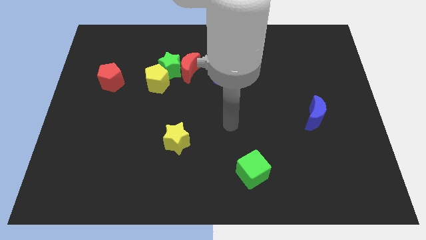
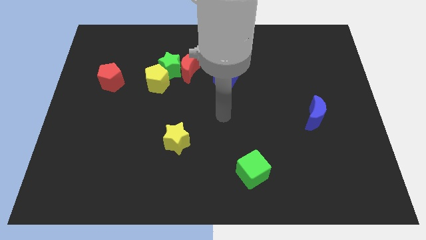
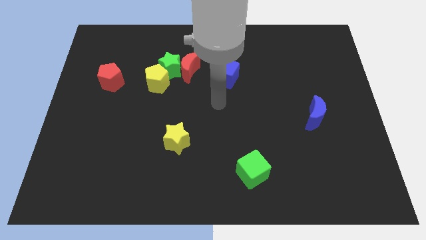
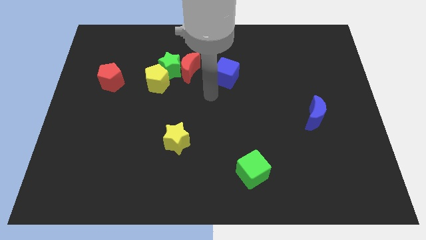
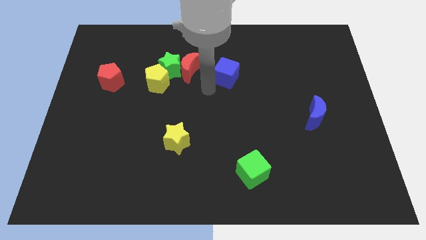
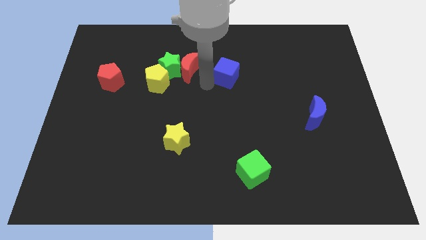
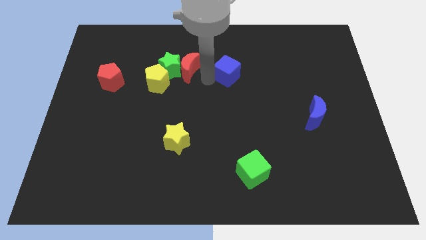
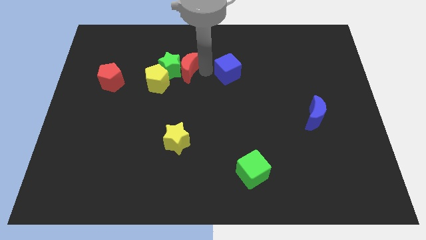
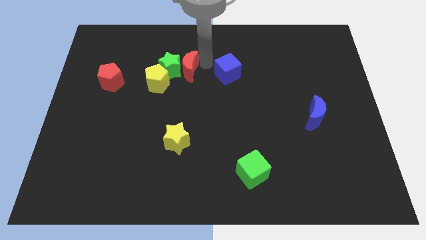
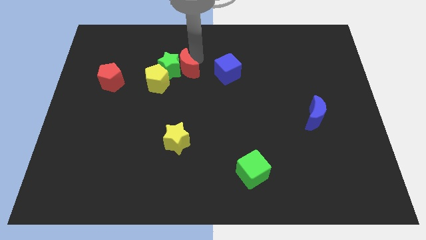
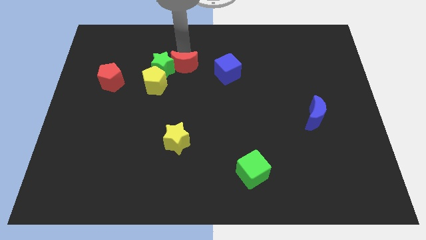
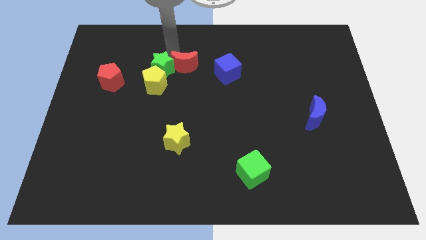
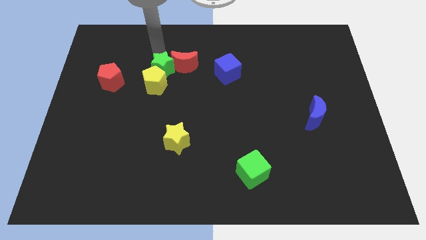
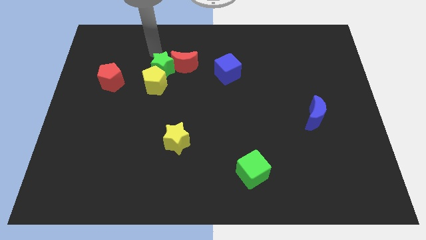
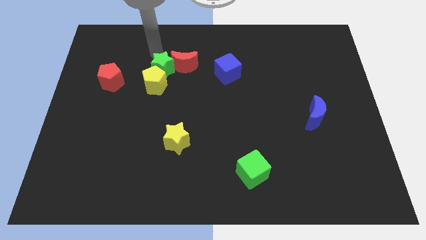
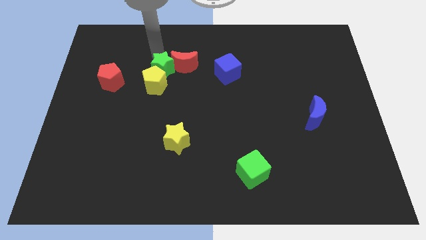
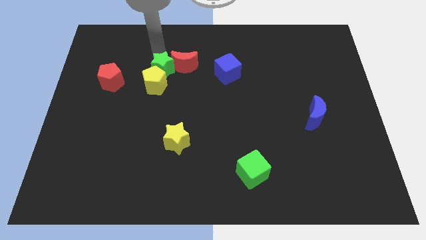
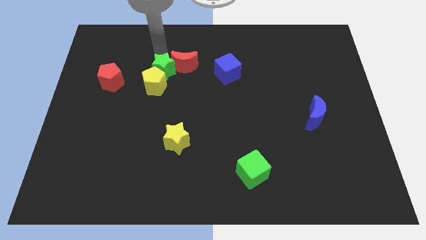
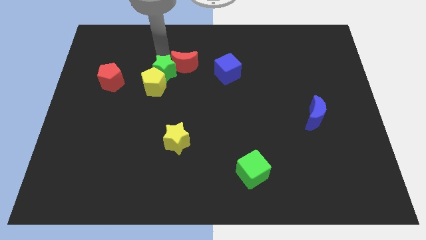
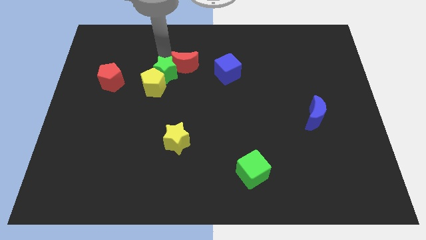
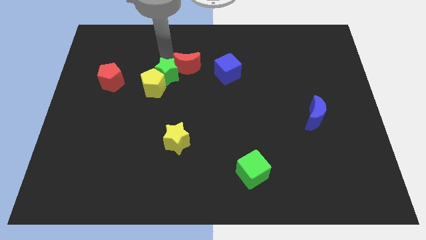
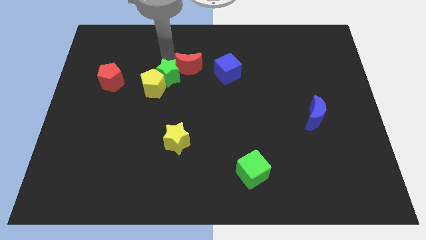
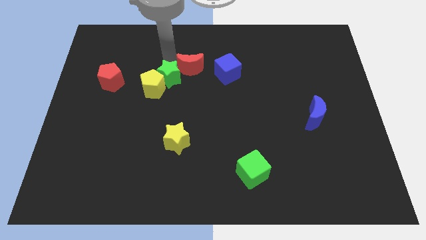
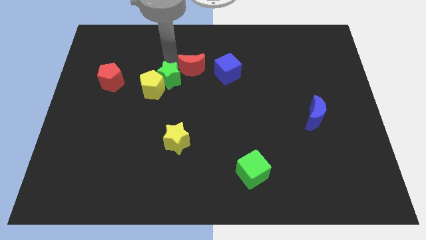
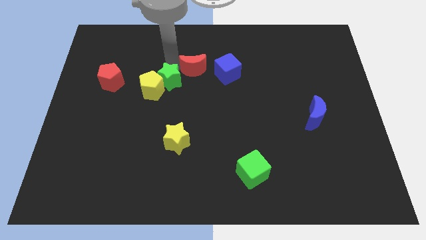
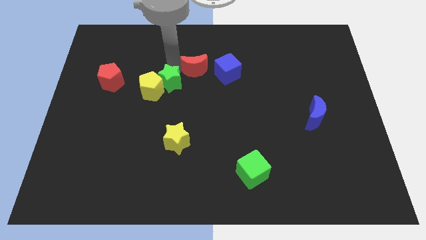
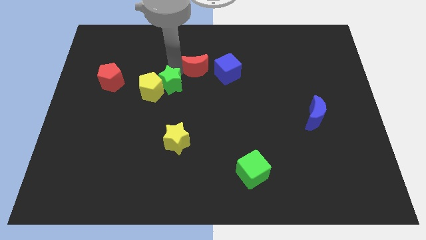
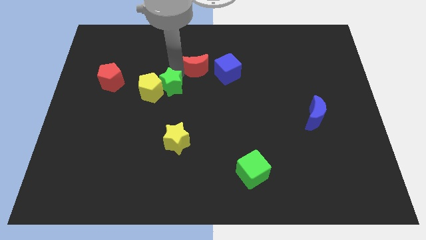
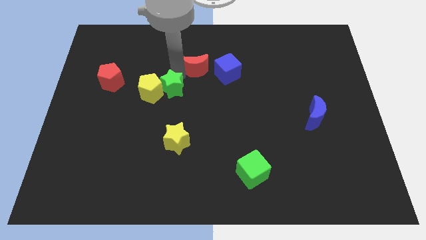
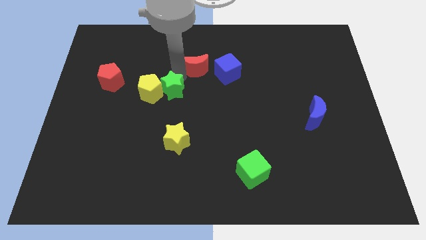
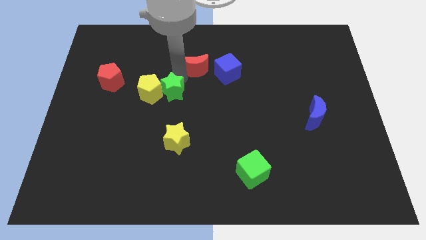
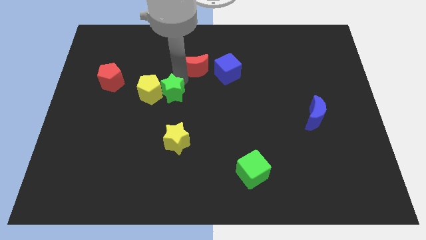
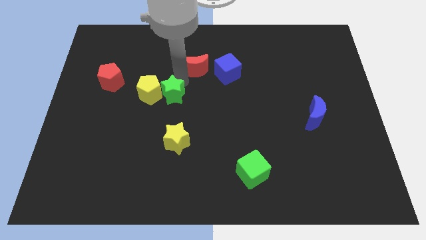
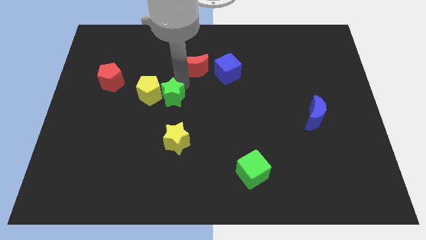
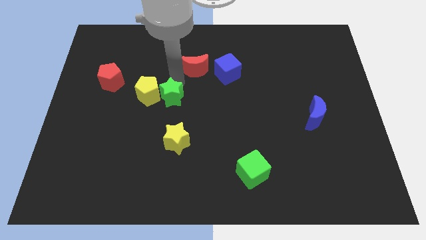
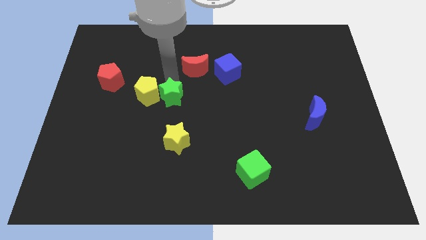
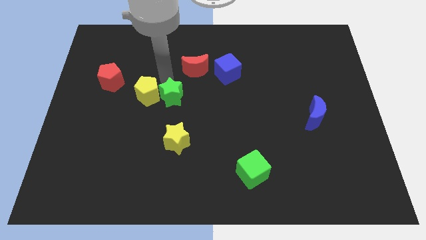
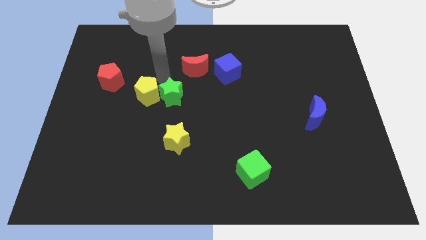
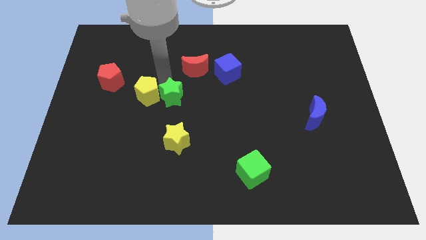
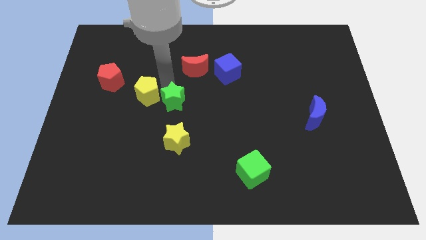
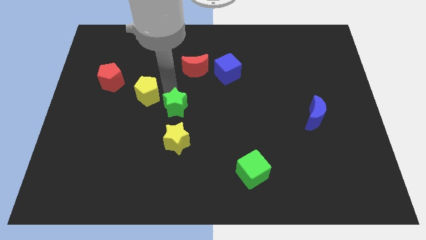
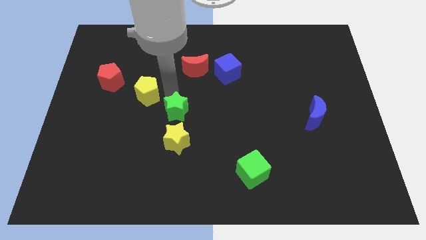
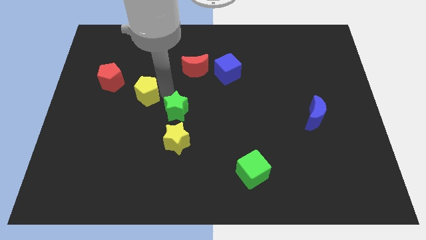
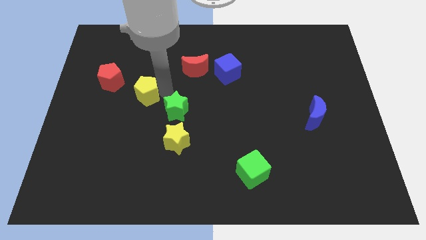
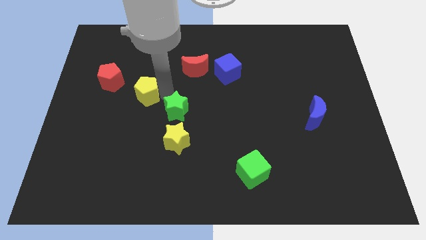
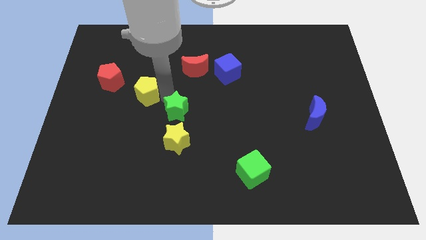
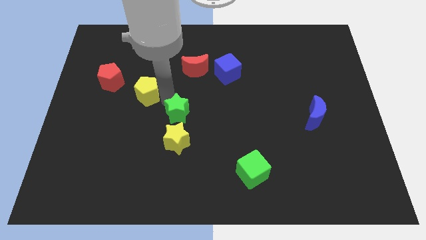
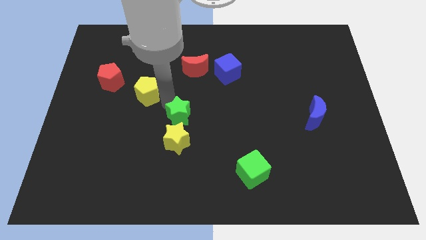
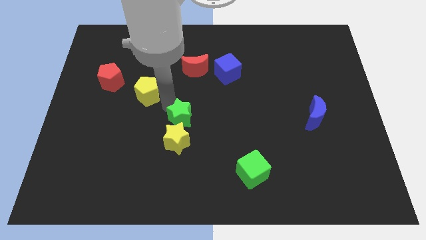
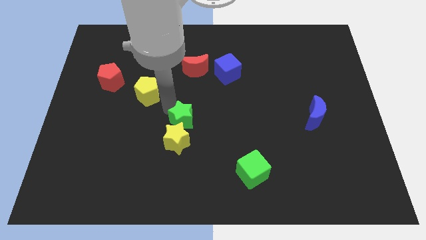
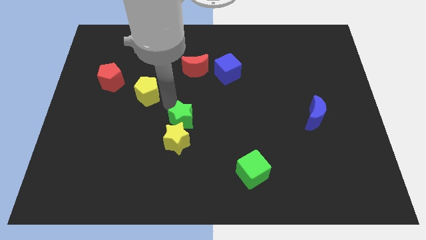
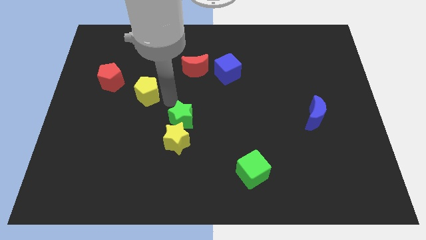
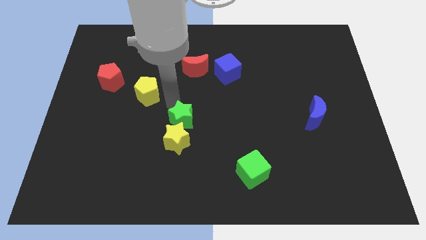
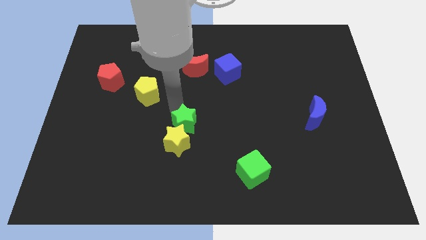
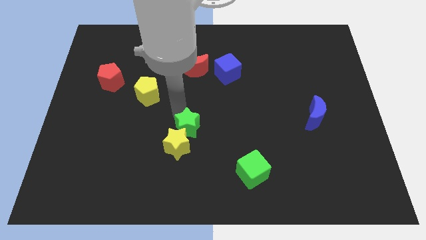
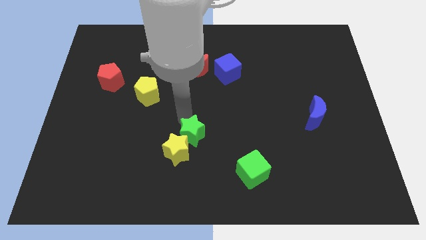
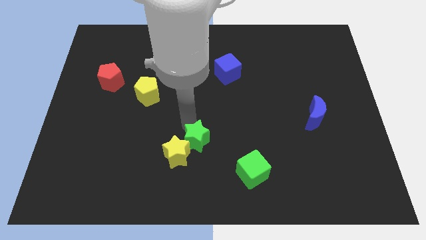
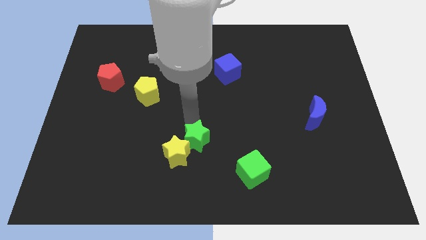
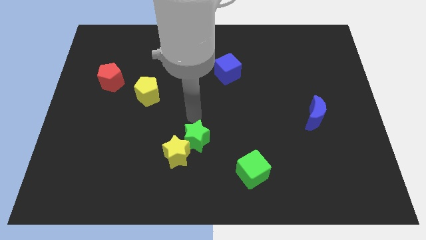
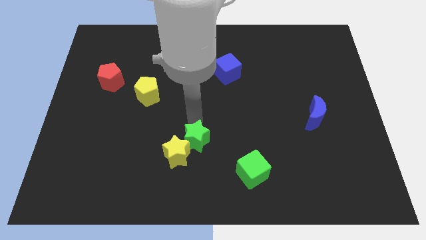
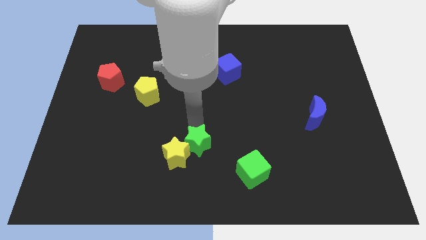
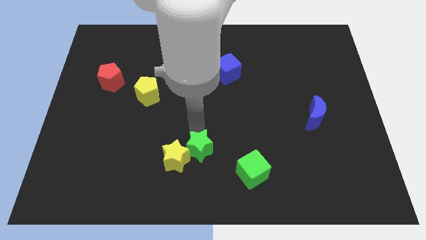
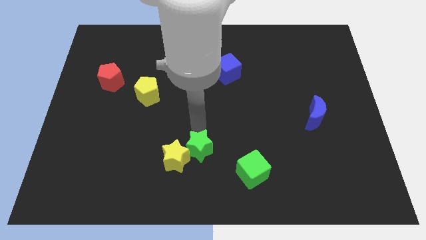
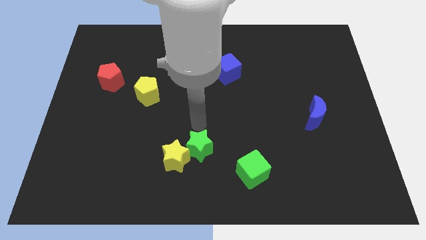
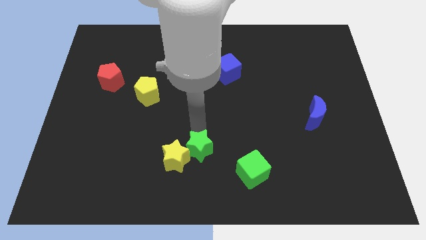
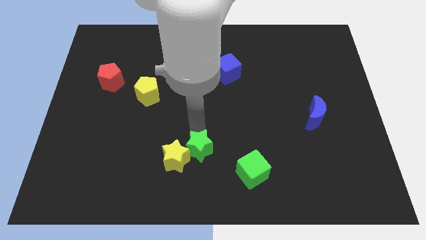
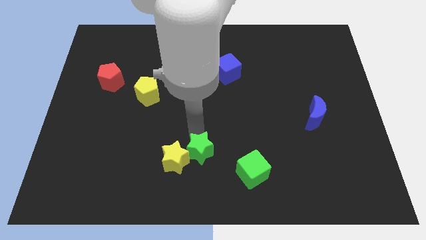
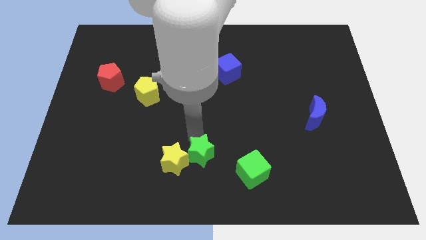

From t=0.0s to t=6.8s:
move the green star to the bottom side
